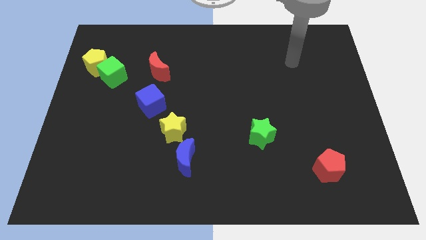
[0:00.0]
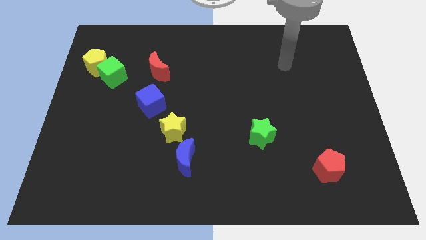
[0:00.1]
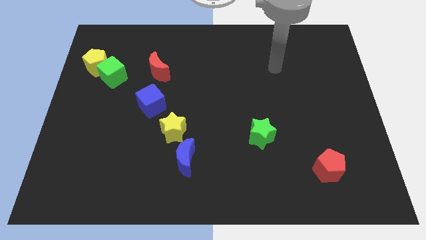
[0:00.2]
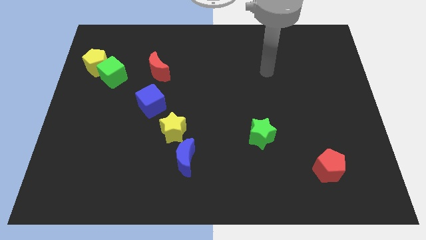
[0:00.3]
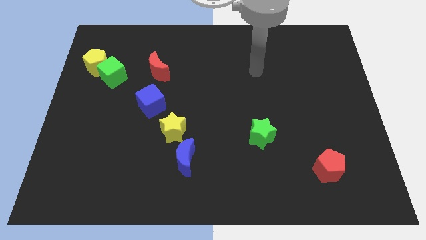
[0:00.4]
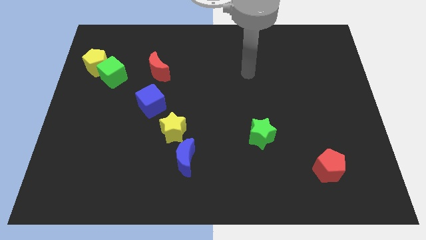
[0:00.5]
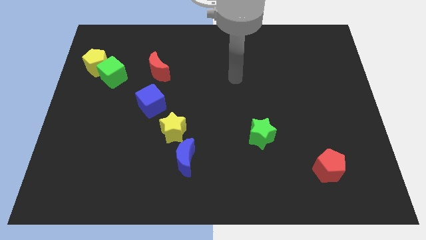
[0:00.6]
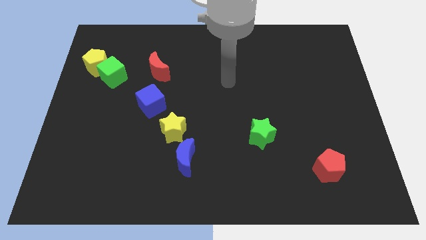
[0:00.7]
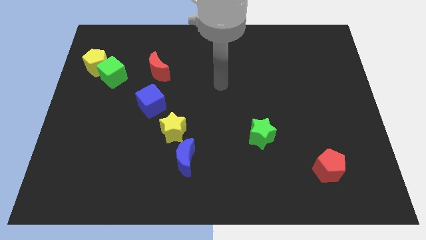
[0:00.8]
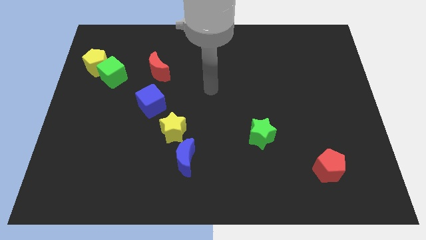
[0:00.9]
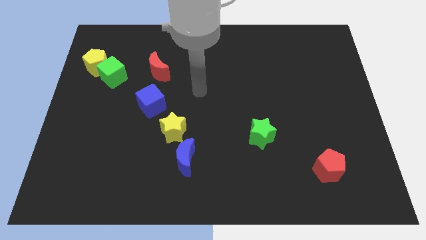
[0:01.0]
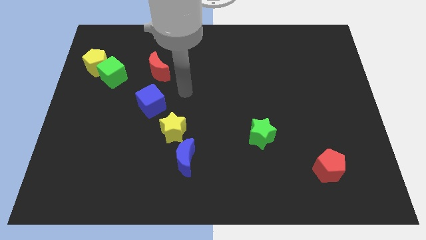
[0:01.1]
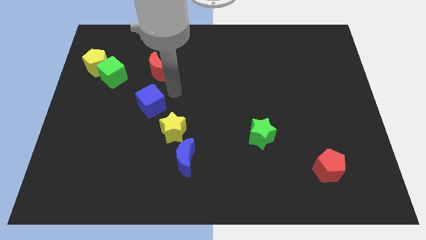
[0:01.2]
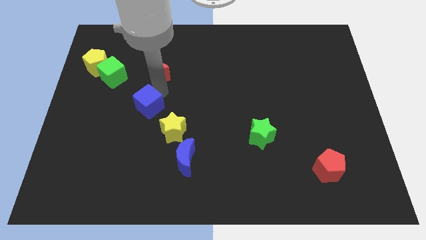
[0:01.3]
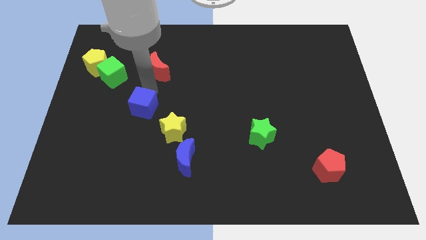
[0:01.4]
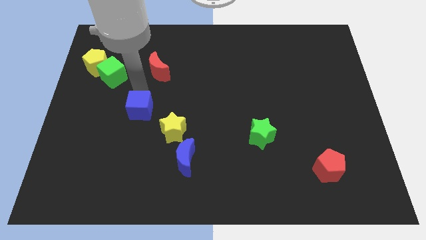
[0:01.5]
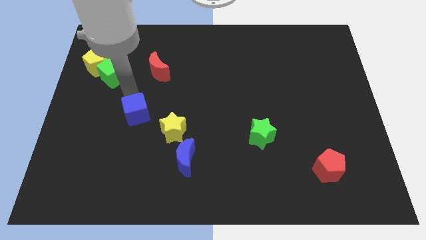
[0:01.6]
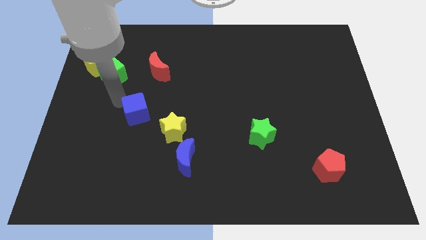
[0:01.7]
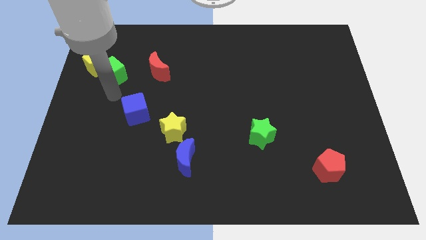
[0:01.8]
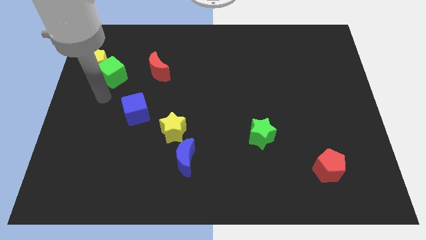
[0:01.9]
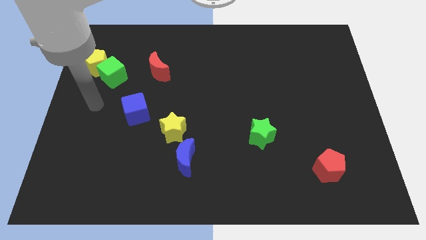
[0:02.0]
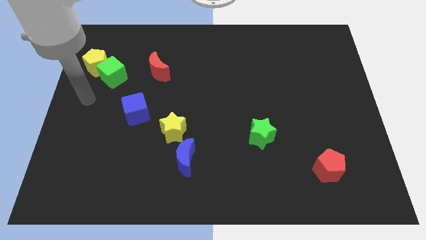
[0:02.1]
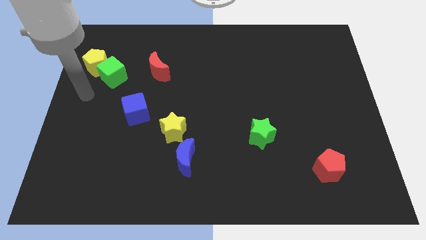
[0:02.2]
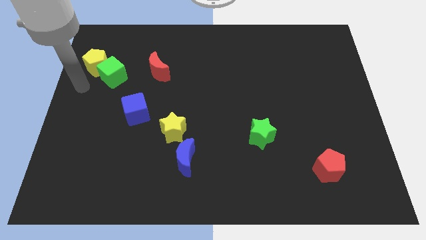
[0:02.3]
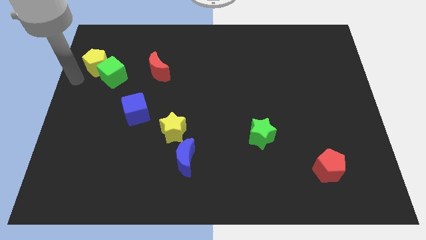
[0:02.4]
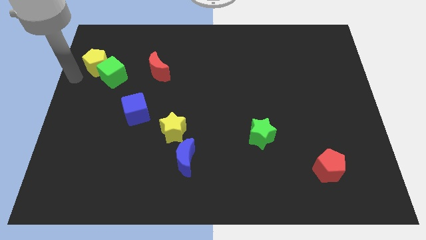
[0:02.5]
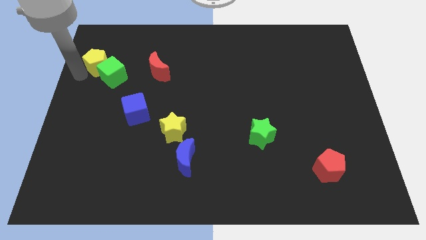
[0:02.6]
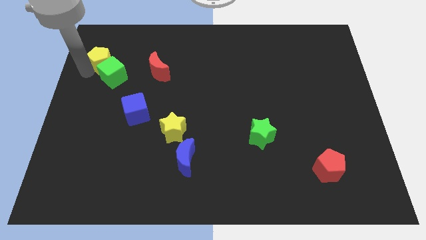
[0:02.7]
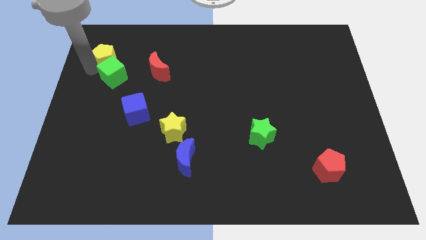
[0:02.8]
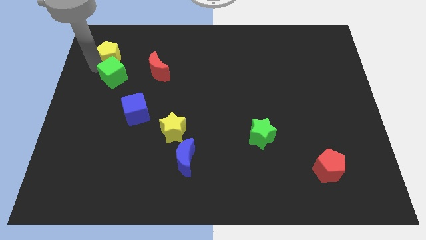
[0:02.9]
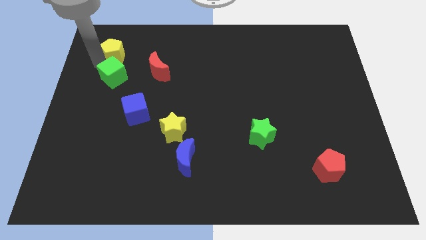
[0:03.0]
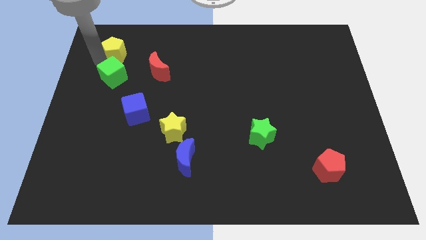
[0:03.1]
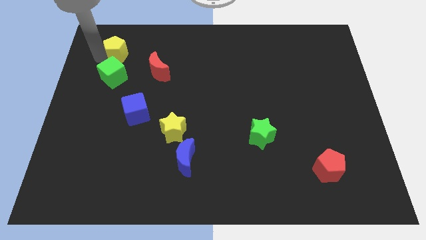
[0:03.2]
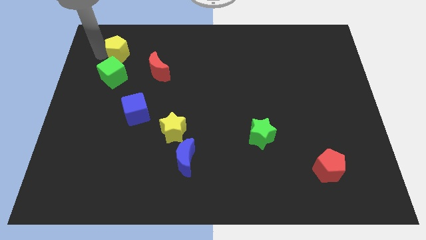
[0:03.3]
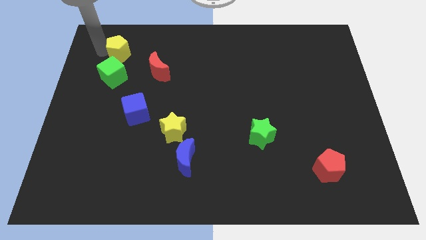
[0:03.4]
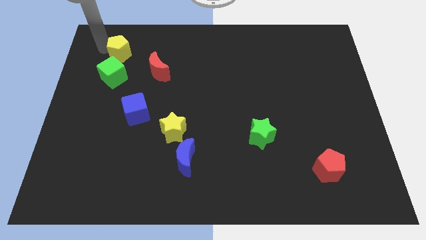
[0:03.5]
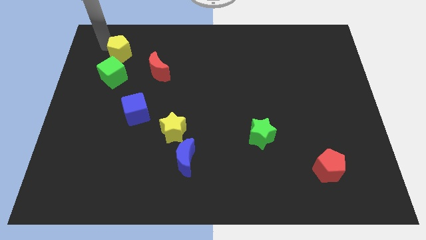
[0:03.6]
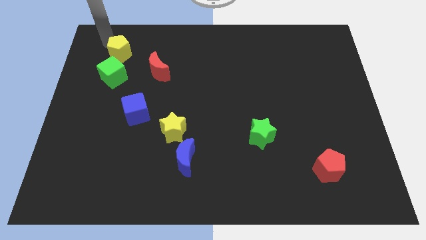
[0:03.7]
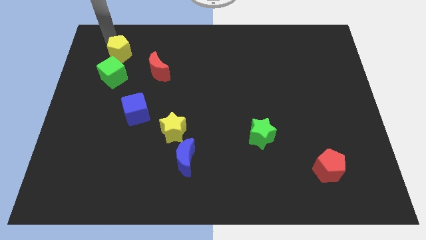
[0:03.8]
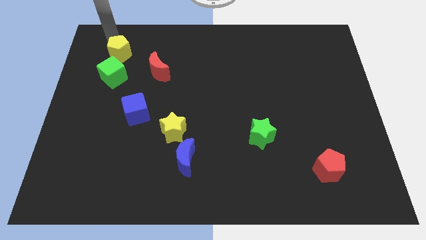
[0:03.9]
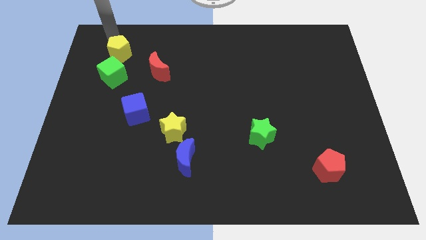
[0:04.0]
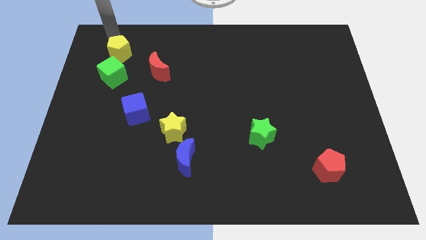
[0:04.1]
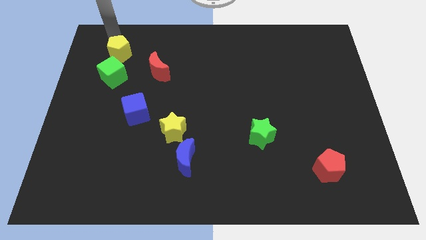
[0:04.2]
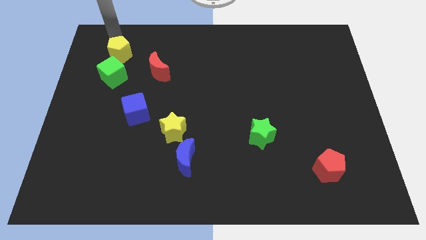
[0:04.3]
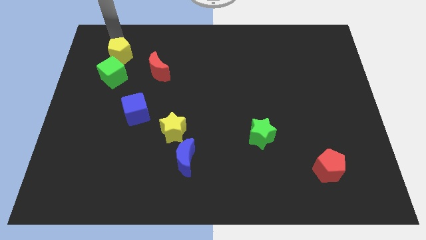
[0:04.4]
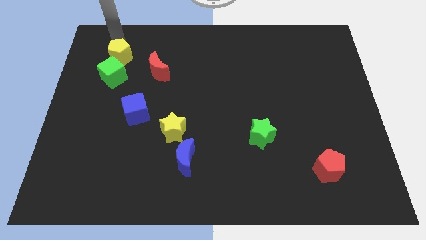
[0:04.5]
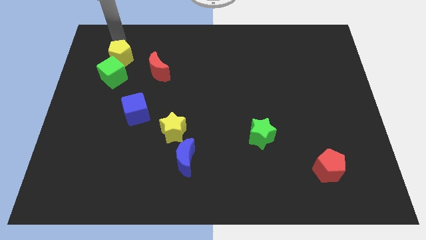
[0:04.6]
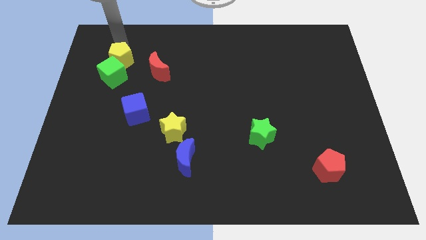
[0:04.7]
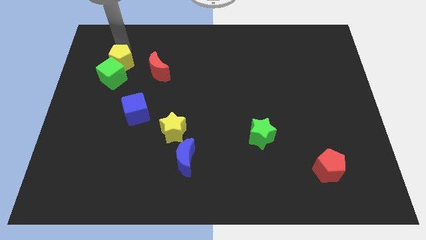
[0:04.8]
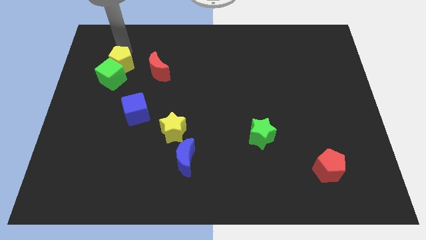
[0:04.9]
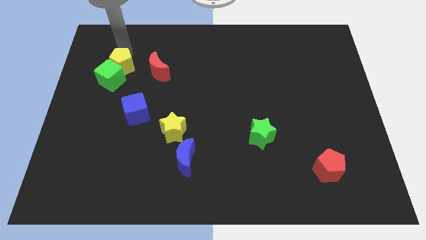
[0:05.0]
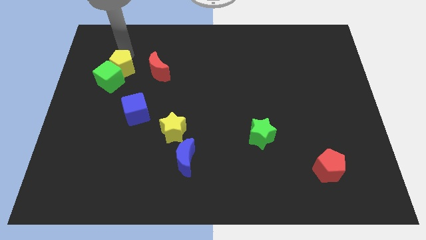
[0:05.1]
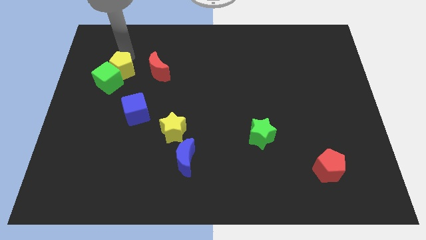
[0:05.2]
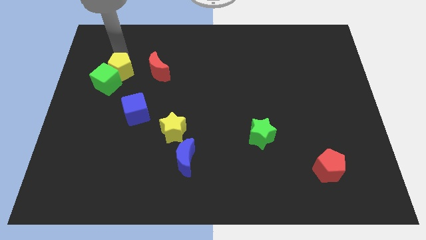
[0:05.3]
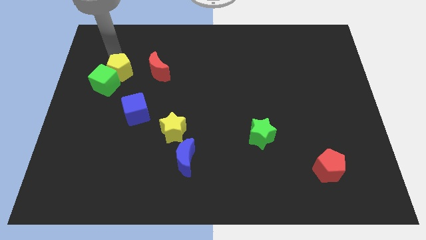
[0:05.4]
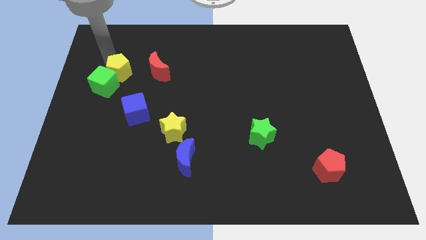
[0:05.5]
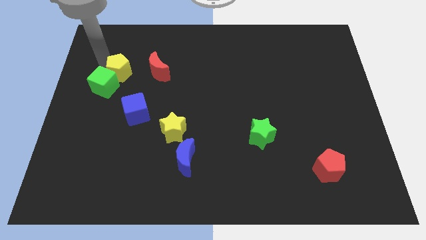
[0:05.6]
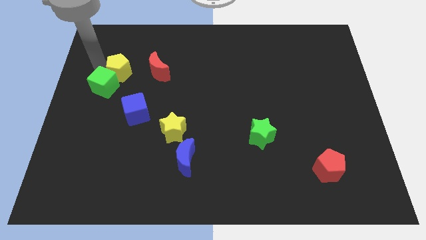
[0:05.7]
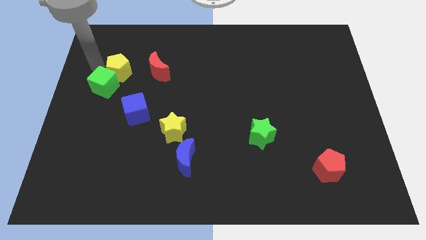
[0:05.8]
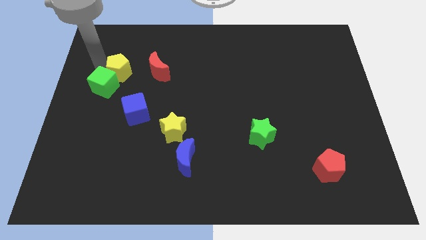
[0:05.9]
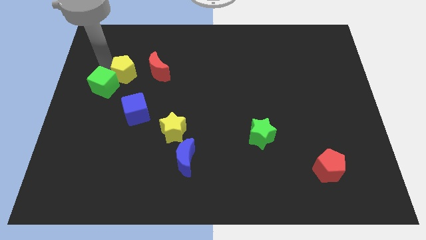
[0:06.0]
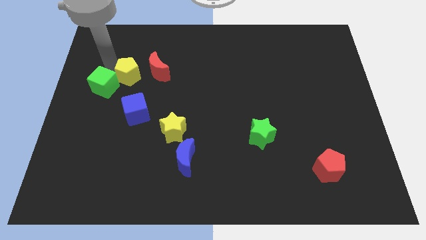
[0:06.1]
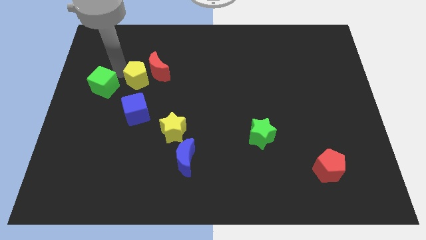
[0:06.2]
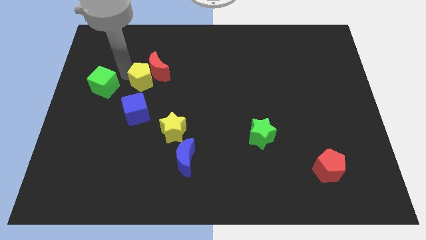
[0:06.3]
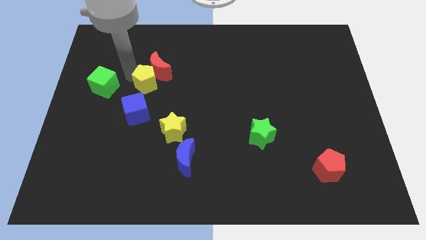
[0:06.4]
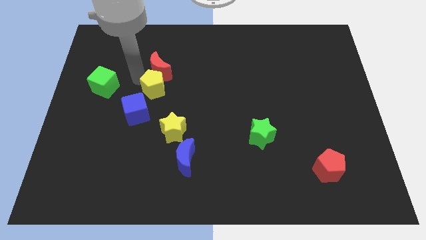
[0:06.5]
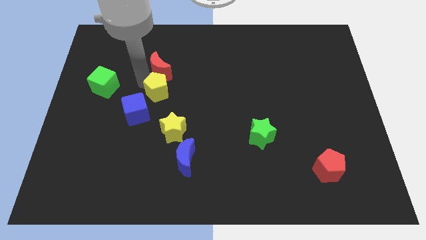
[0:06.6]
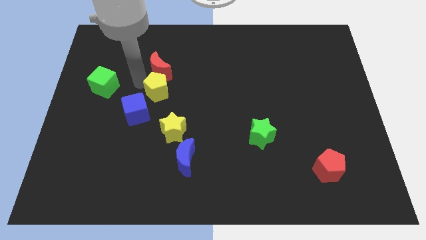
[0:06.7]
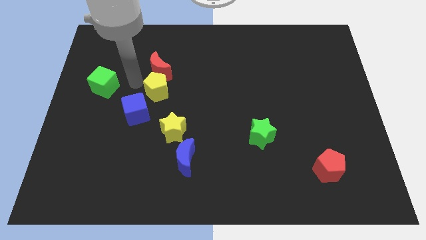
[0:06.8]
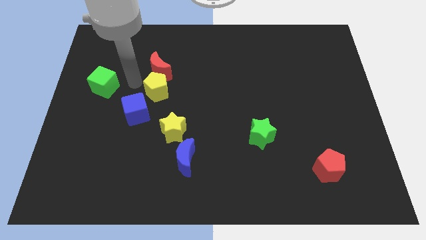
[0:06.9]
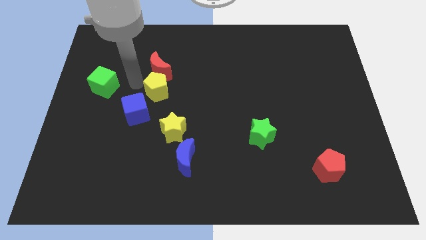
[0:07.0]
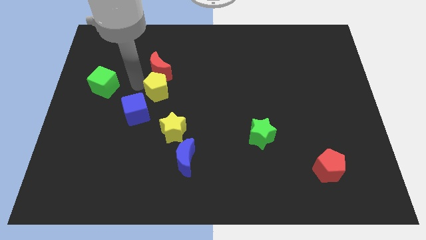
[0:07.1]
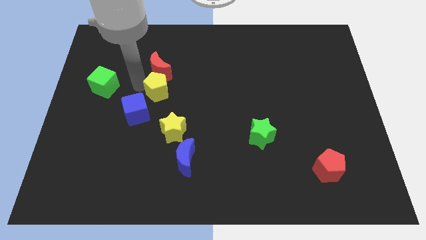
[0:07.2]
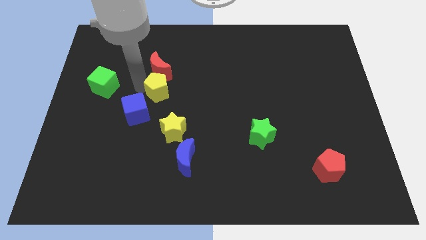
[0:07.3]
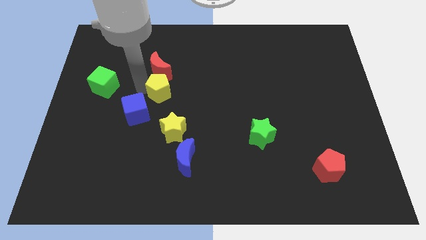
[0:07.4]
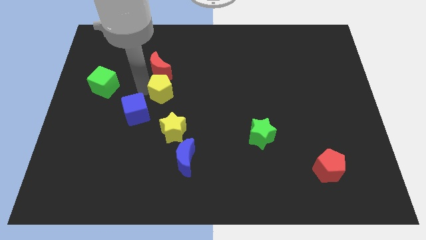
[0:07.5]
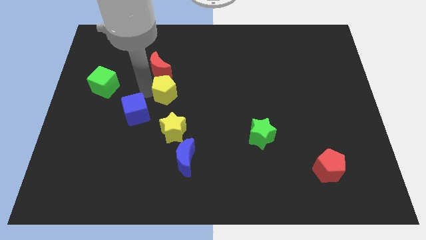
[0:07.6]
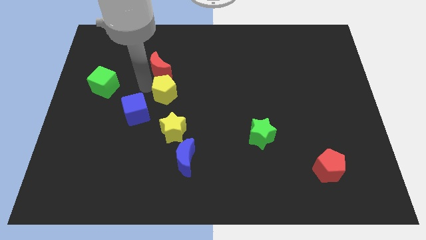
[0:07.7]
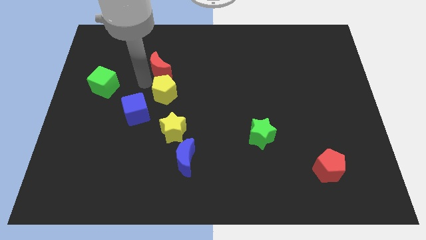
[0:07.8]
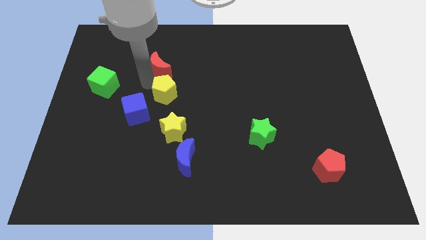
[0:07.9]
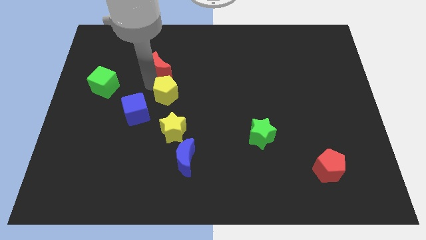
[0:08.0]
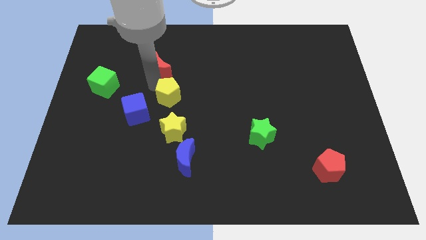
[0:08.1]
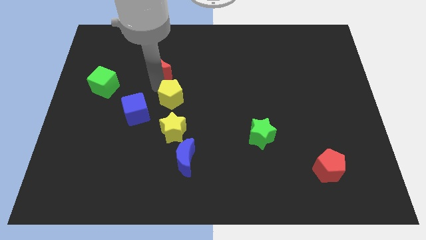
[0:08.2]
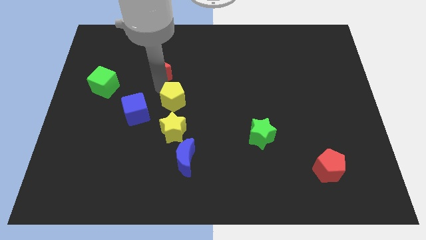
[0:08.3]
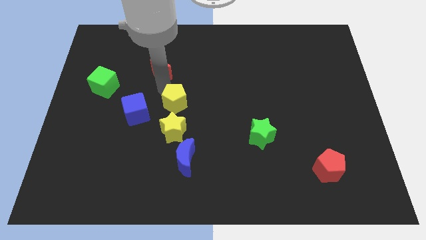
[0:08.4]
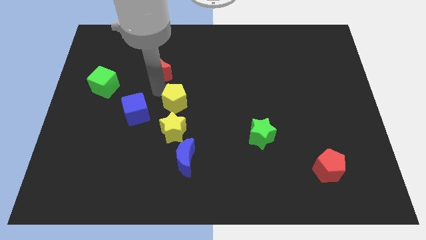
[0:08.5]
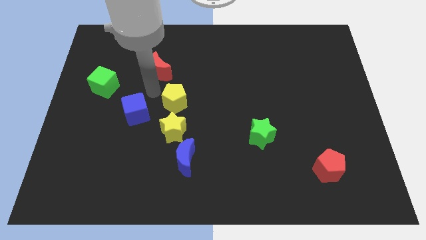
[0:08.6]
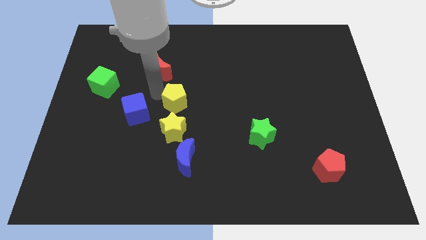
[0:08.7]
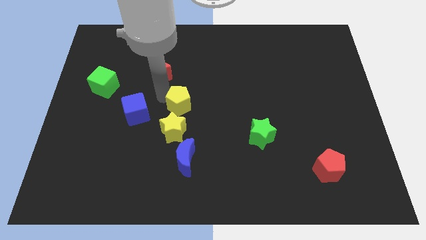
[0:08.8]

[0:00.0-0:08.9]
put the yellow pentagon to the top right of the yellow star
